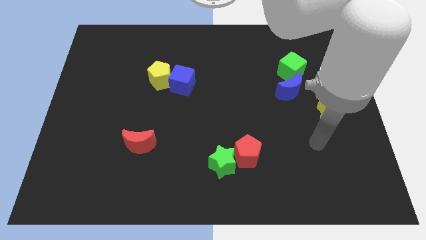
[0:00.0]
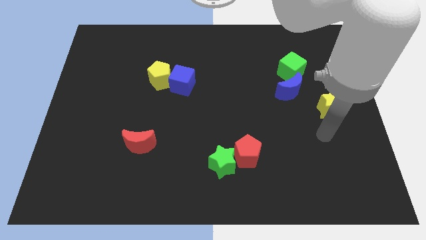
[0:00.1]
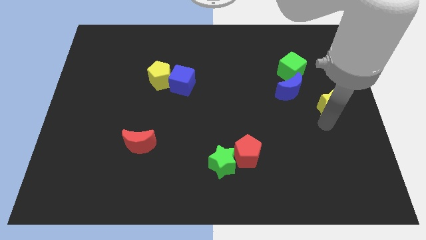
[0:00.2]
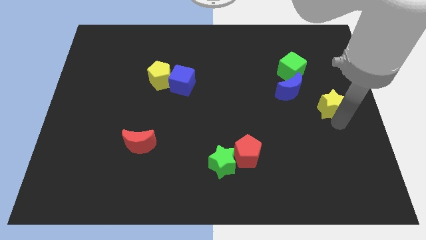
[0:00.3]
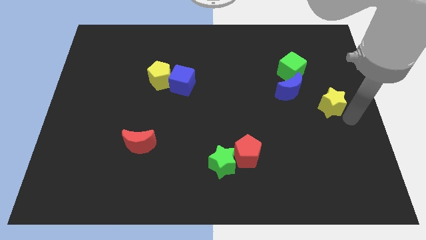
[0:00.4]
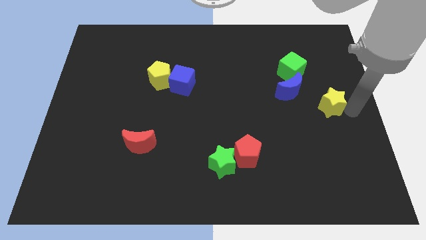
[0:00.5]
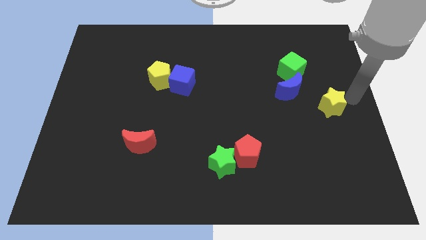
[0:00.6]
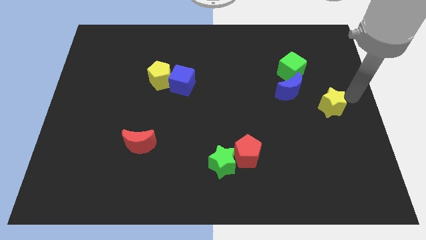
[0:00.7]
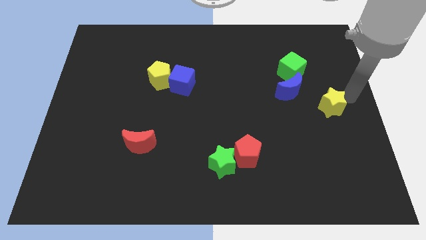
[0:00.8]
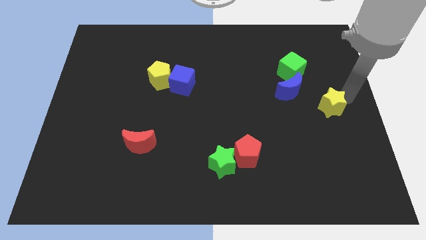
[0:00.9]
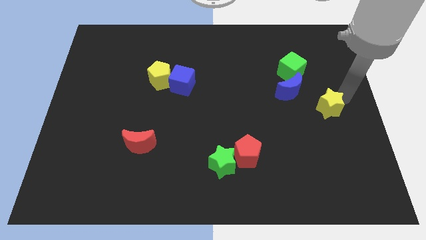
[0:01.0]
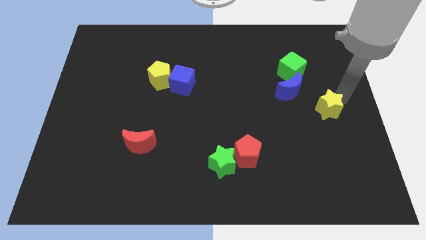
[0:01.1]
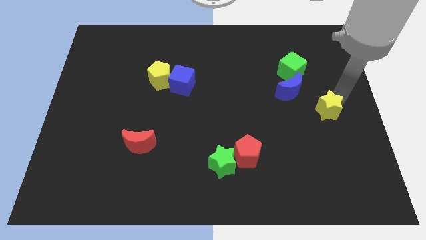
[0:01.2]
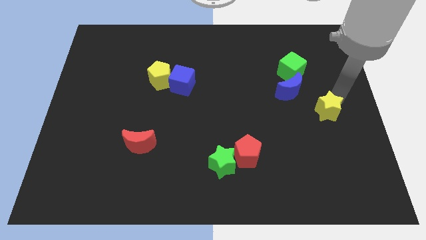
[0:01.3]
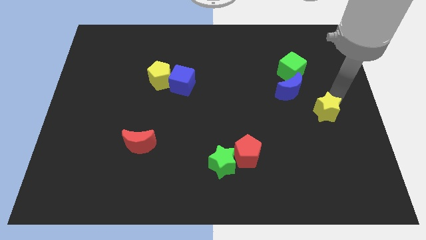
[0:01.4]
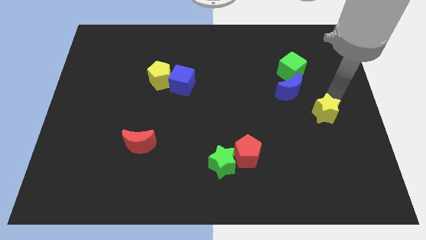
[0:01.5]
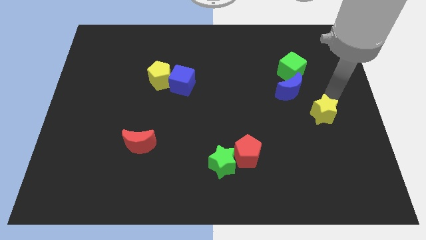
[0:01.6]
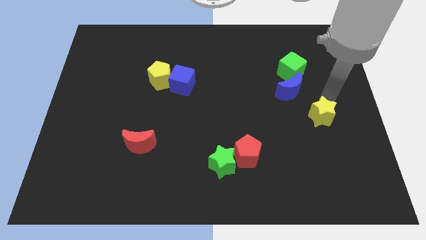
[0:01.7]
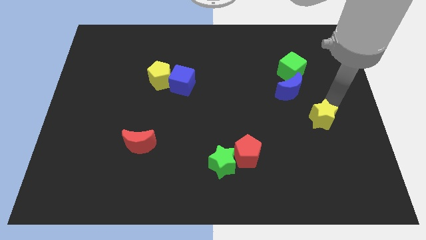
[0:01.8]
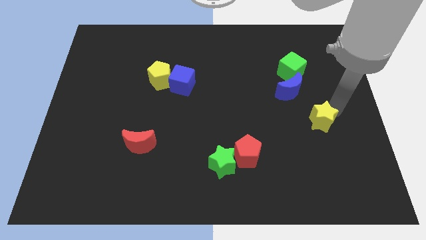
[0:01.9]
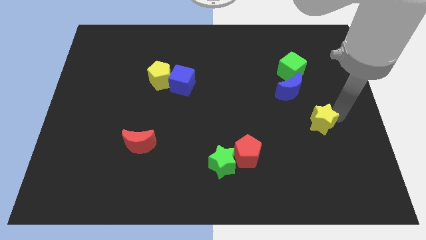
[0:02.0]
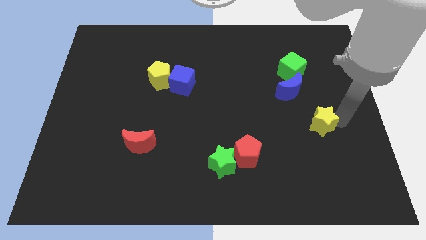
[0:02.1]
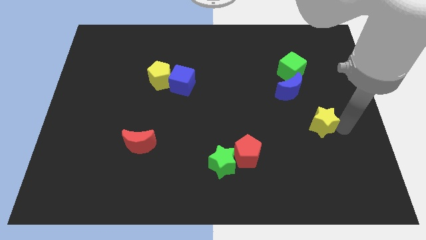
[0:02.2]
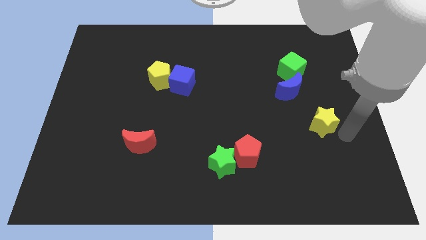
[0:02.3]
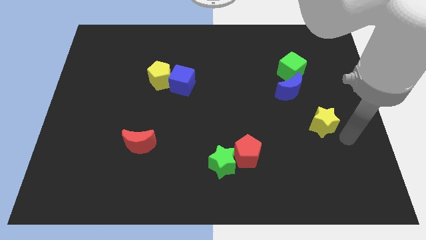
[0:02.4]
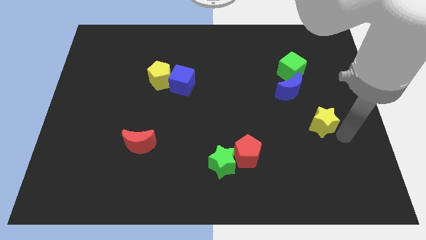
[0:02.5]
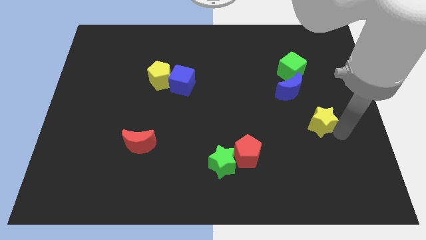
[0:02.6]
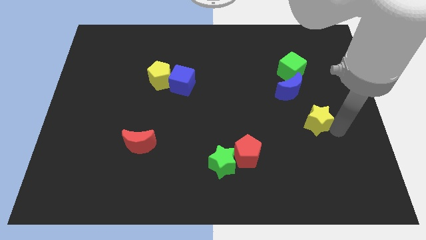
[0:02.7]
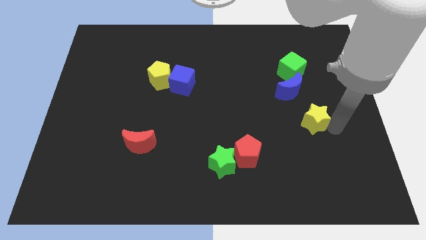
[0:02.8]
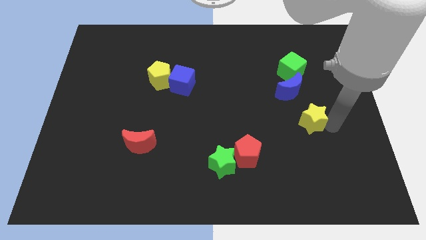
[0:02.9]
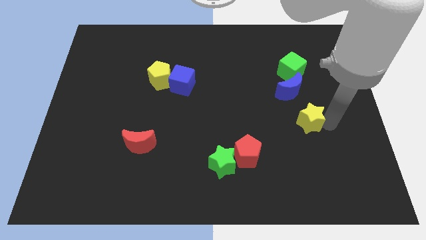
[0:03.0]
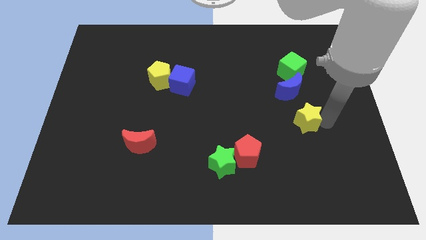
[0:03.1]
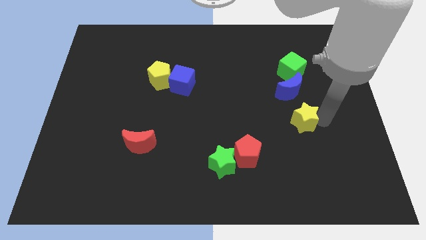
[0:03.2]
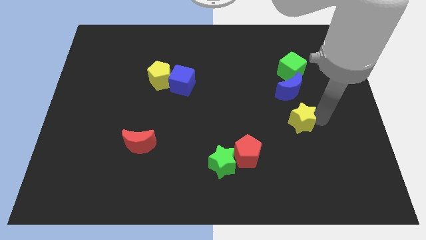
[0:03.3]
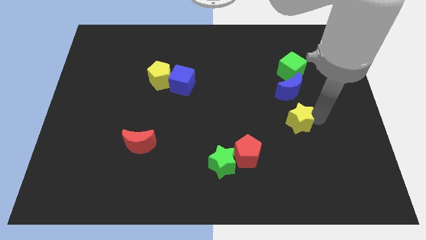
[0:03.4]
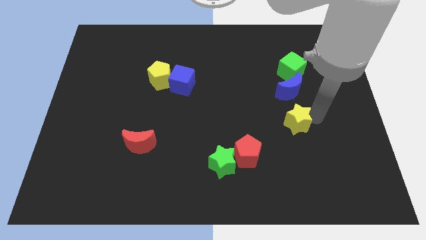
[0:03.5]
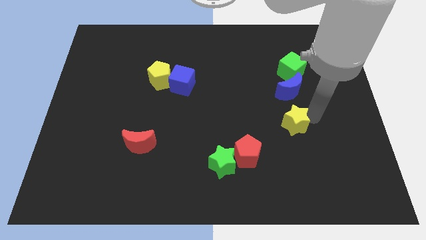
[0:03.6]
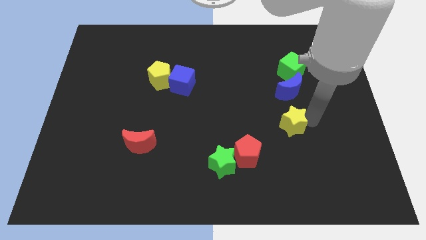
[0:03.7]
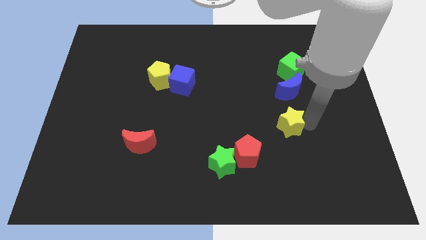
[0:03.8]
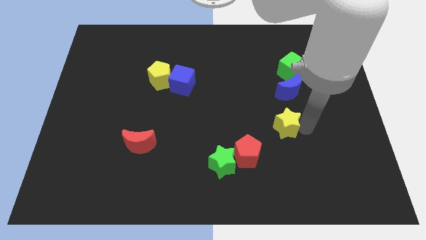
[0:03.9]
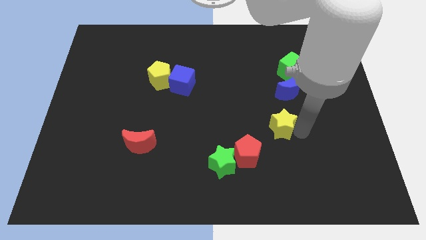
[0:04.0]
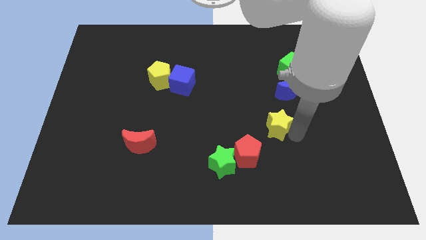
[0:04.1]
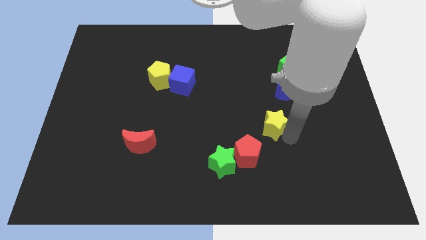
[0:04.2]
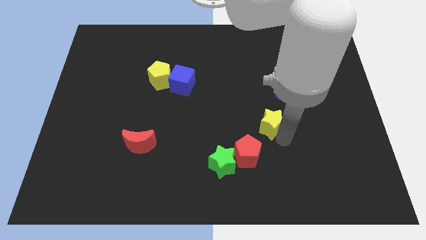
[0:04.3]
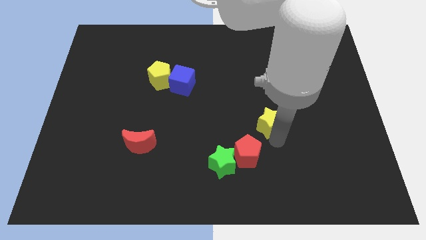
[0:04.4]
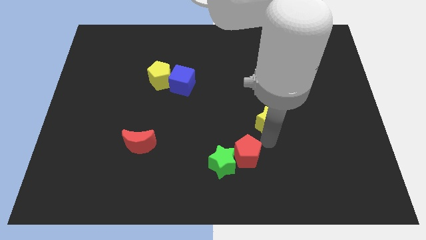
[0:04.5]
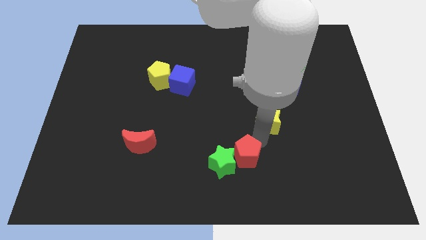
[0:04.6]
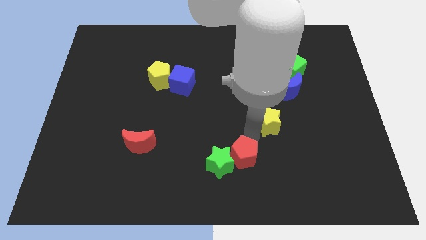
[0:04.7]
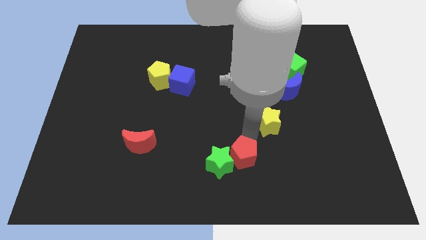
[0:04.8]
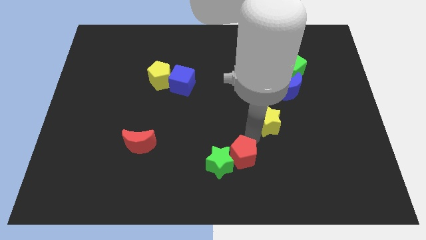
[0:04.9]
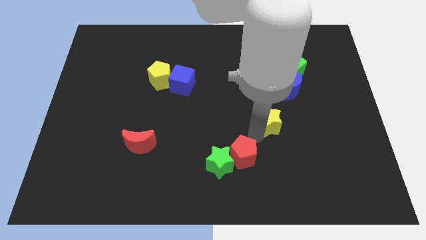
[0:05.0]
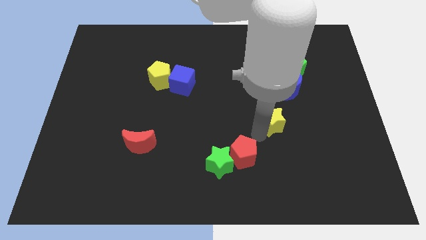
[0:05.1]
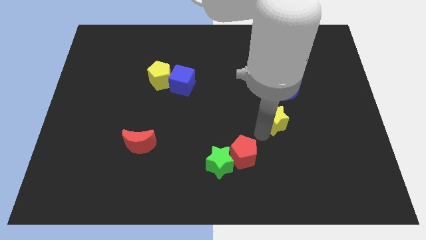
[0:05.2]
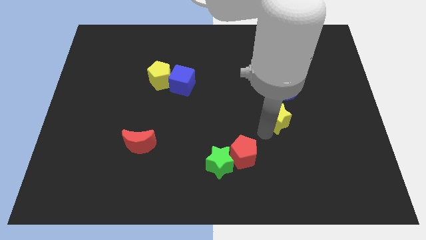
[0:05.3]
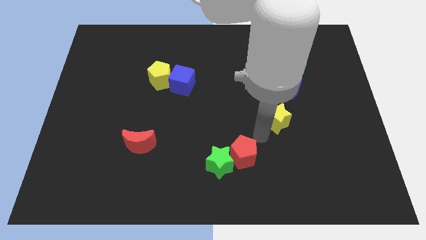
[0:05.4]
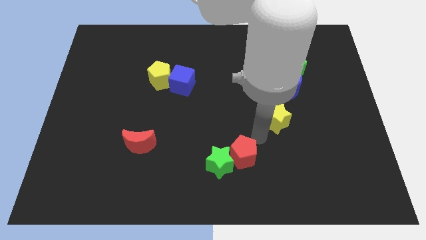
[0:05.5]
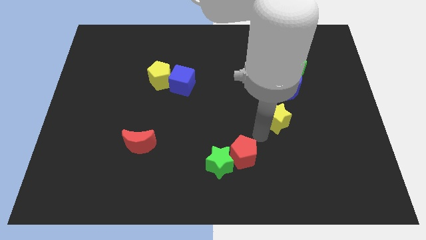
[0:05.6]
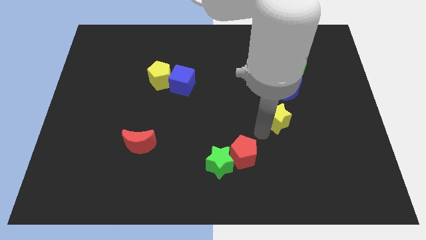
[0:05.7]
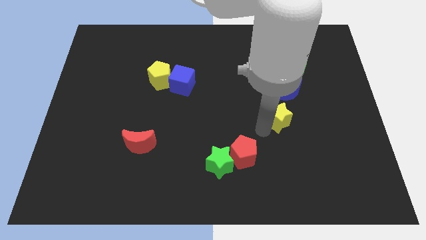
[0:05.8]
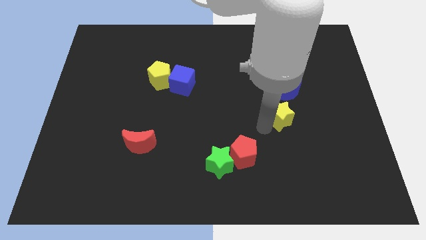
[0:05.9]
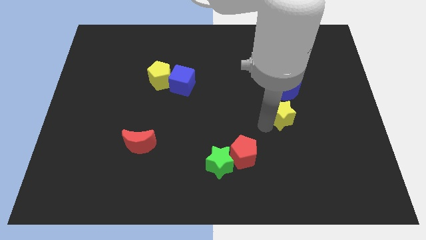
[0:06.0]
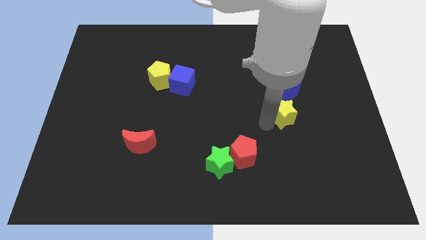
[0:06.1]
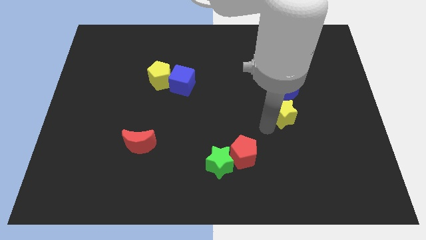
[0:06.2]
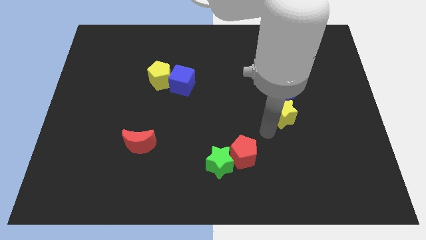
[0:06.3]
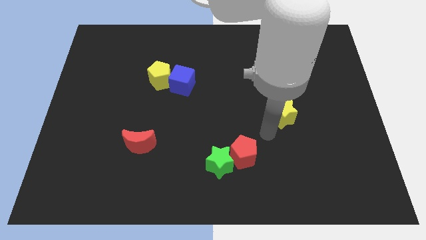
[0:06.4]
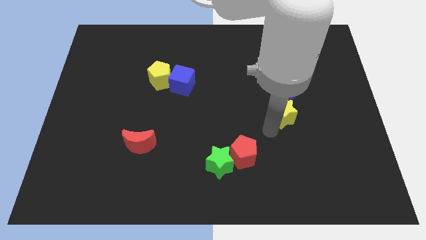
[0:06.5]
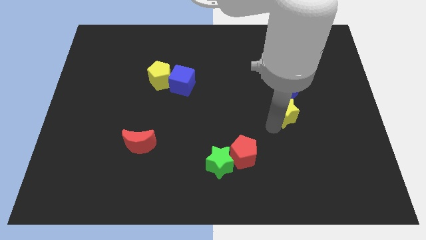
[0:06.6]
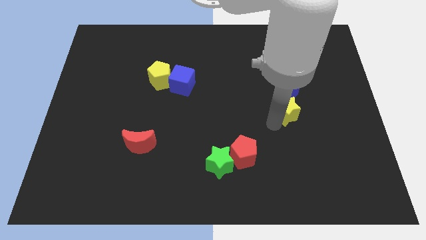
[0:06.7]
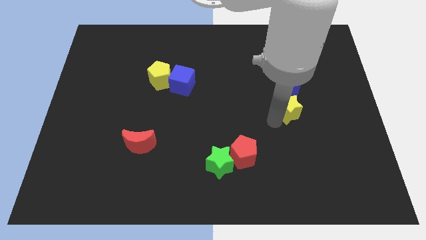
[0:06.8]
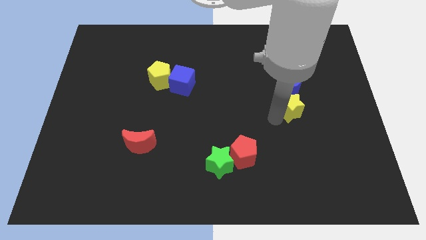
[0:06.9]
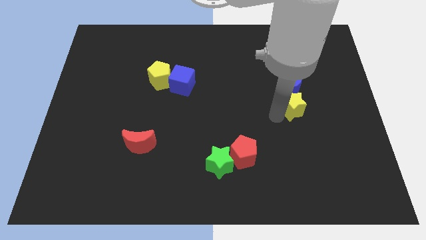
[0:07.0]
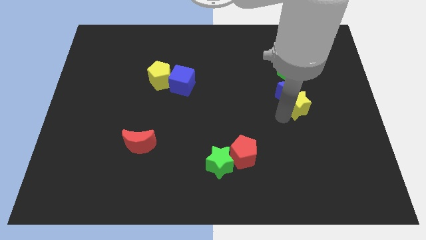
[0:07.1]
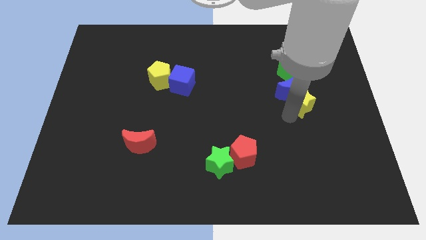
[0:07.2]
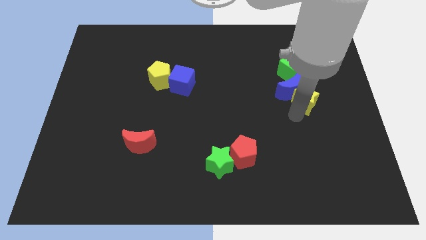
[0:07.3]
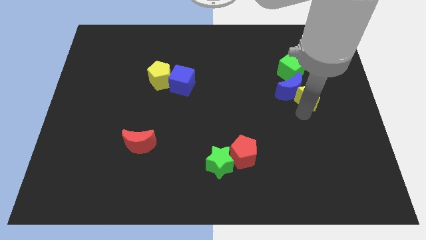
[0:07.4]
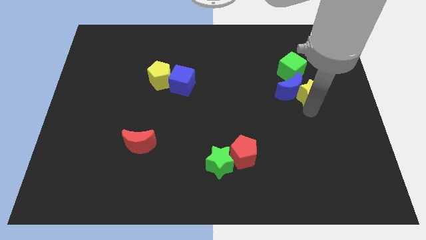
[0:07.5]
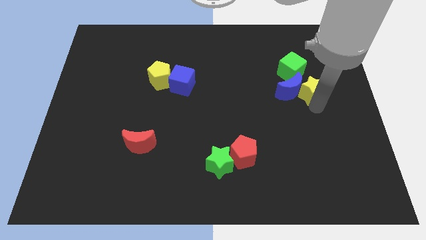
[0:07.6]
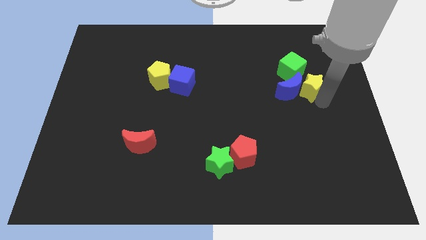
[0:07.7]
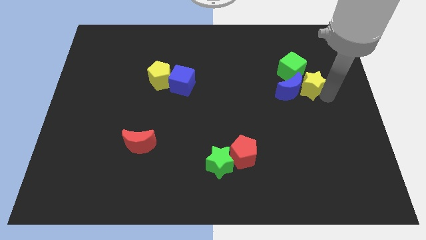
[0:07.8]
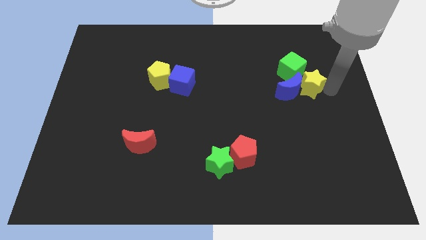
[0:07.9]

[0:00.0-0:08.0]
move the yellow star a little diagonally upwards and to the left
